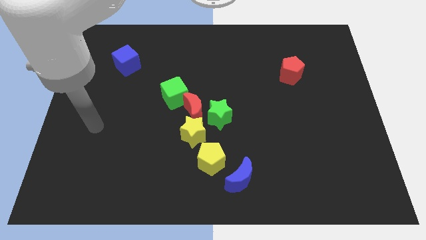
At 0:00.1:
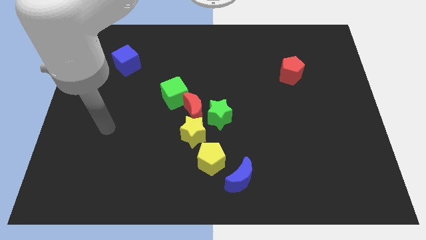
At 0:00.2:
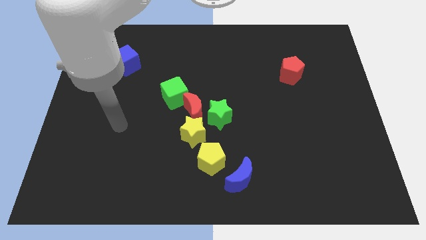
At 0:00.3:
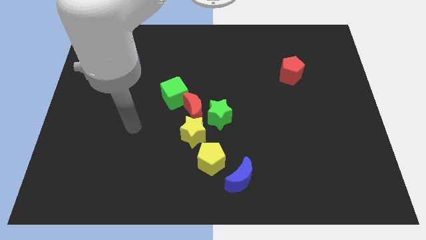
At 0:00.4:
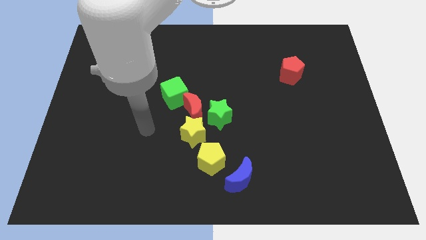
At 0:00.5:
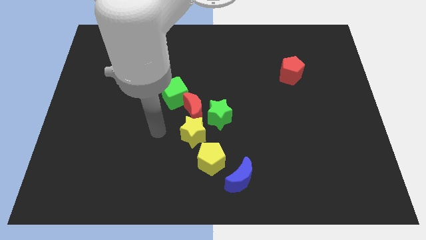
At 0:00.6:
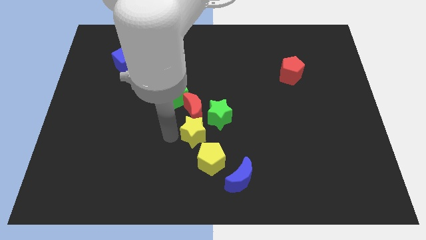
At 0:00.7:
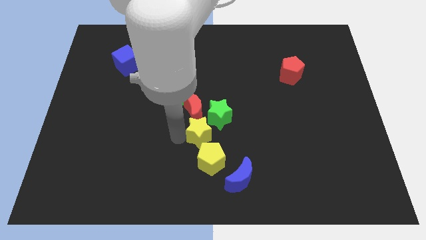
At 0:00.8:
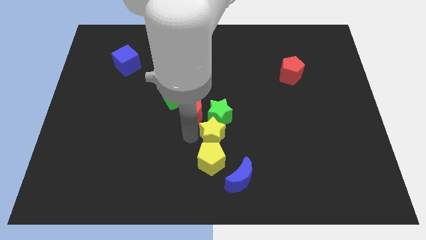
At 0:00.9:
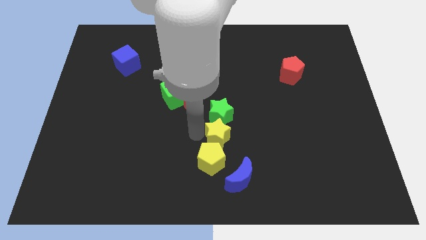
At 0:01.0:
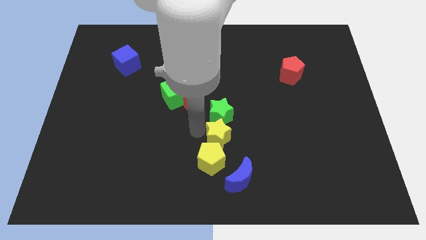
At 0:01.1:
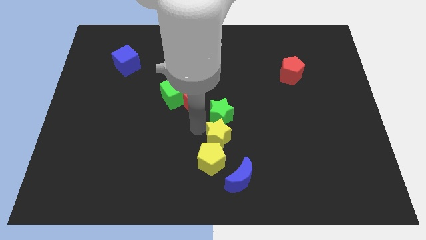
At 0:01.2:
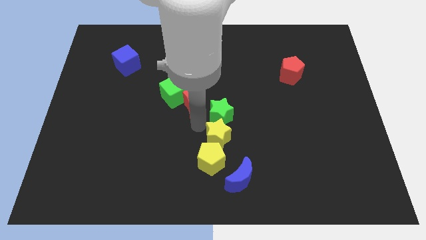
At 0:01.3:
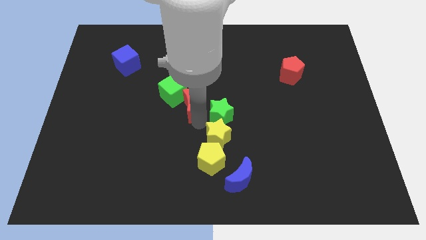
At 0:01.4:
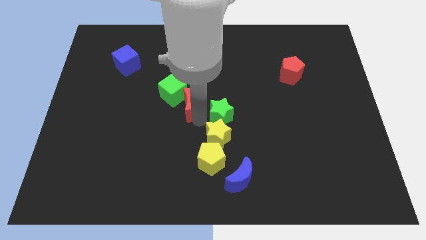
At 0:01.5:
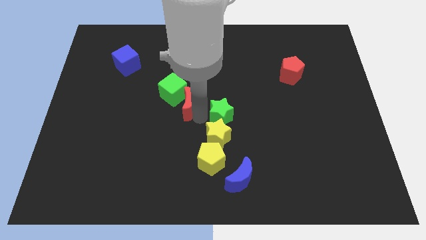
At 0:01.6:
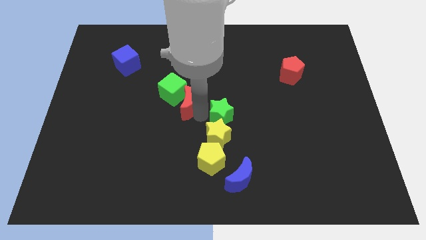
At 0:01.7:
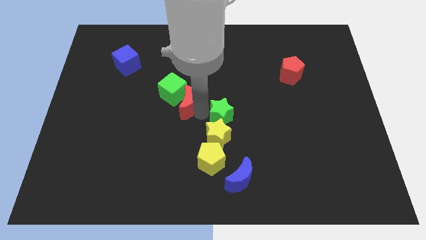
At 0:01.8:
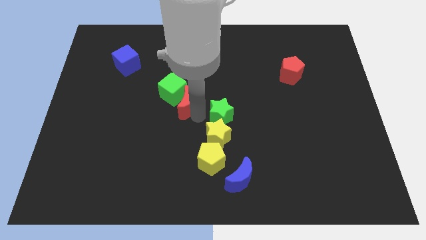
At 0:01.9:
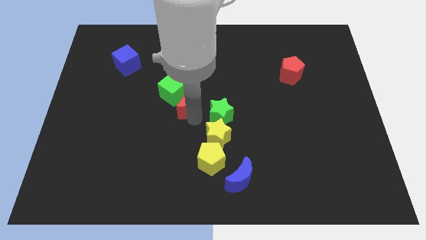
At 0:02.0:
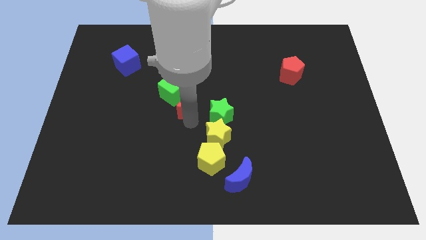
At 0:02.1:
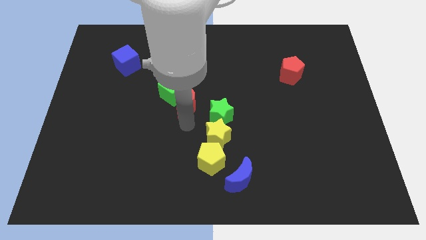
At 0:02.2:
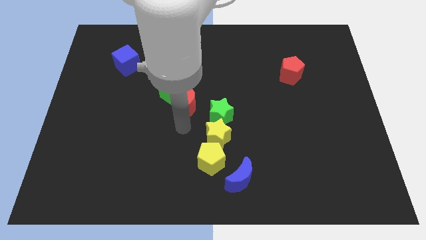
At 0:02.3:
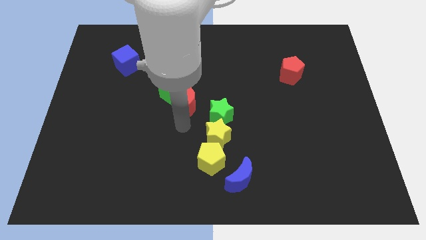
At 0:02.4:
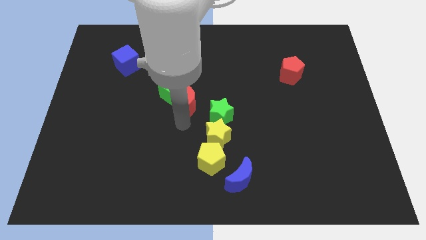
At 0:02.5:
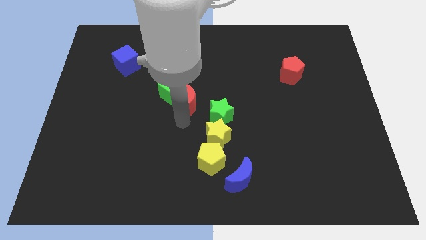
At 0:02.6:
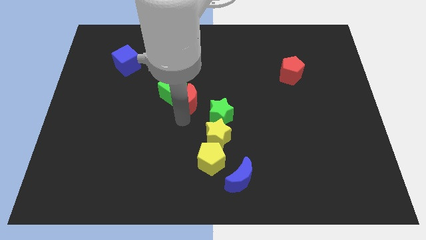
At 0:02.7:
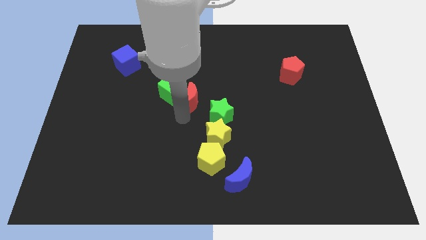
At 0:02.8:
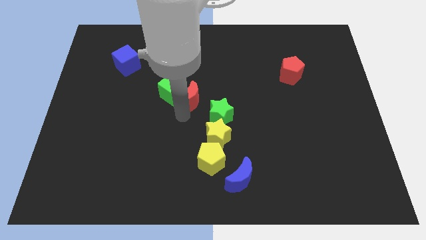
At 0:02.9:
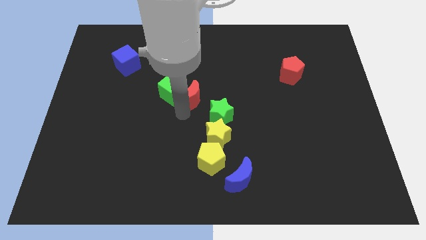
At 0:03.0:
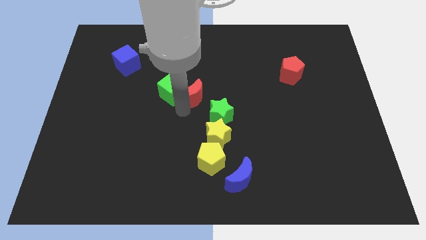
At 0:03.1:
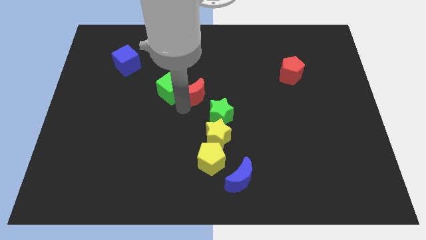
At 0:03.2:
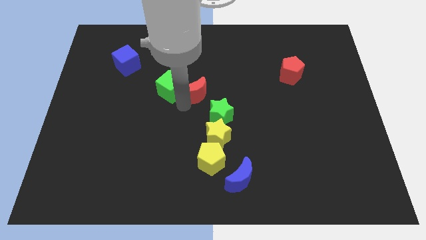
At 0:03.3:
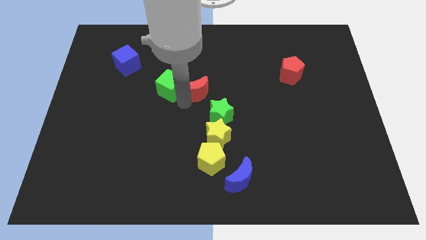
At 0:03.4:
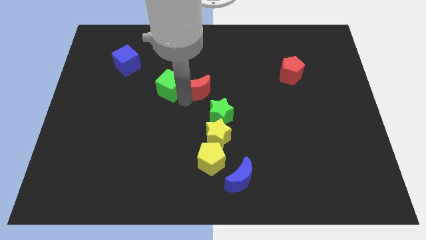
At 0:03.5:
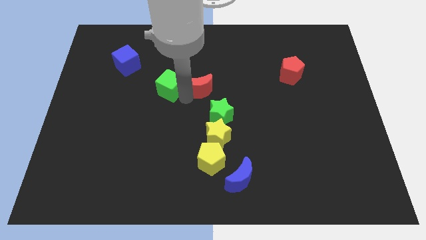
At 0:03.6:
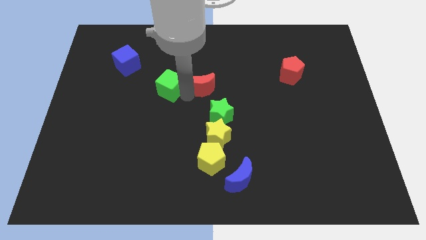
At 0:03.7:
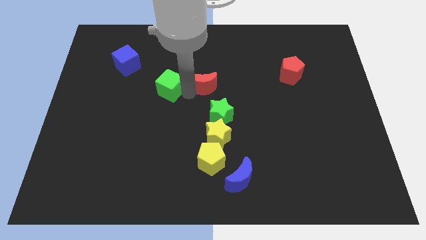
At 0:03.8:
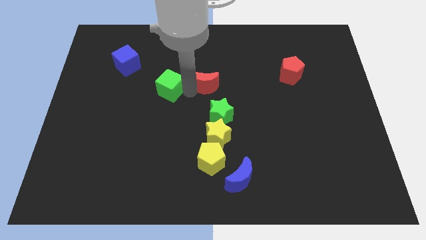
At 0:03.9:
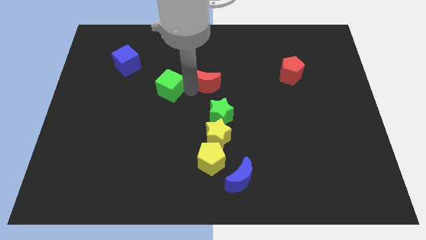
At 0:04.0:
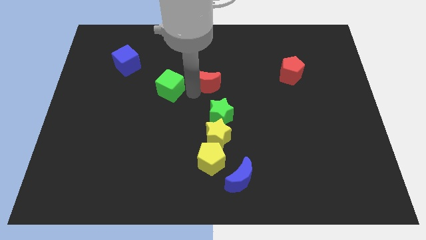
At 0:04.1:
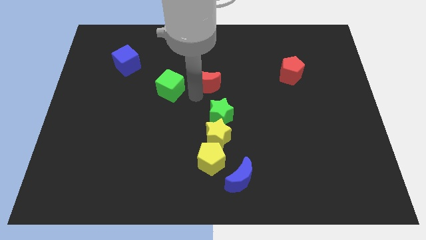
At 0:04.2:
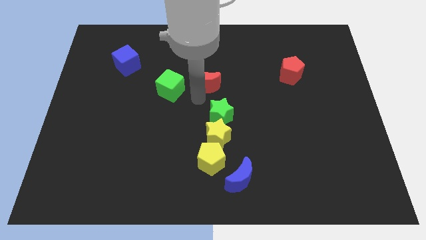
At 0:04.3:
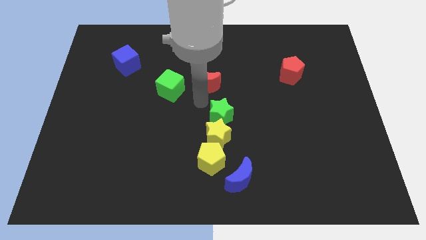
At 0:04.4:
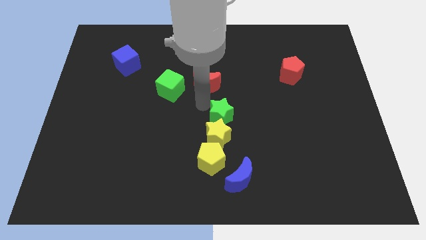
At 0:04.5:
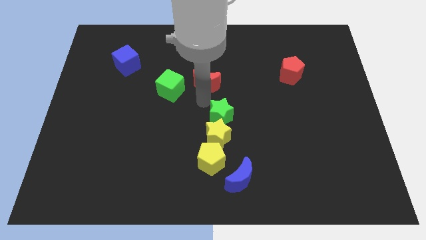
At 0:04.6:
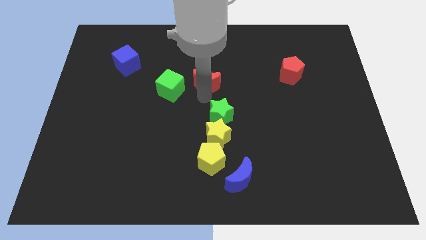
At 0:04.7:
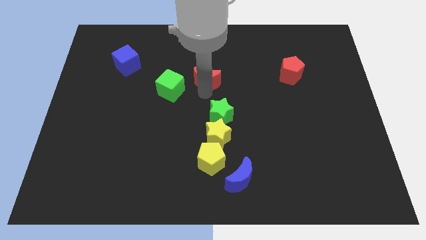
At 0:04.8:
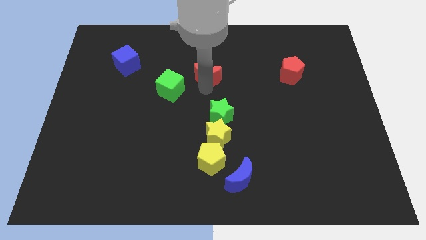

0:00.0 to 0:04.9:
pull the red moon apart from the green star, yellow star, and green cube

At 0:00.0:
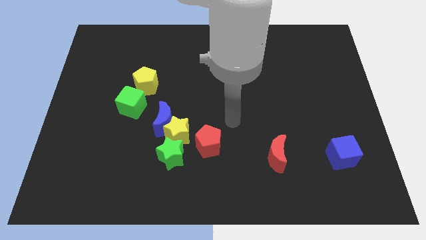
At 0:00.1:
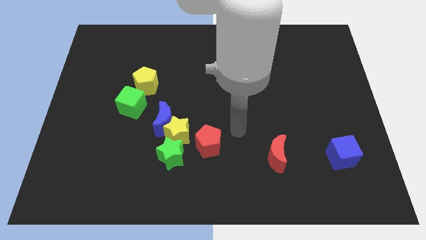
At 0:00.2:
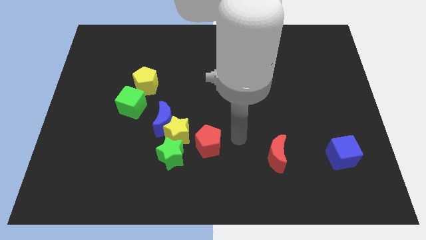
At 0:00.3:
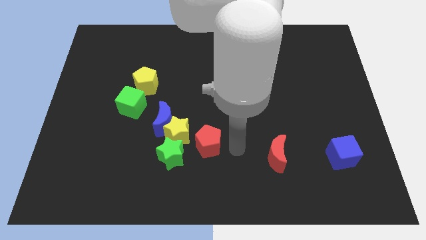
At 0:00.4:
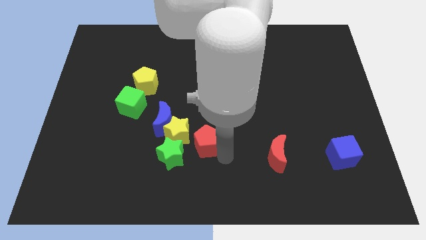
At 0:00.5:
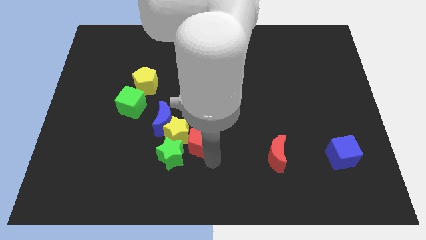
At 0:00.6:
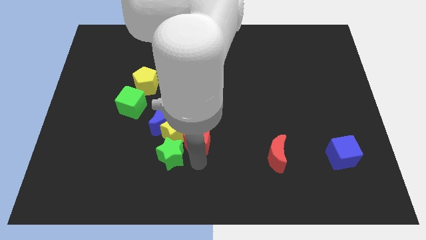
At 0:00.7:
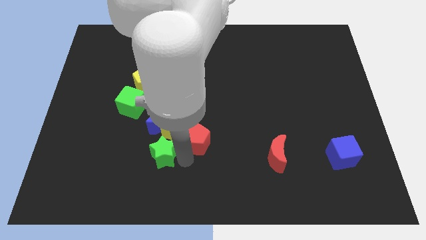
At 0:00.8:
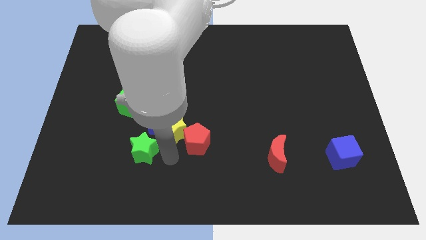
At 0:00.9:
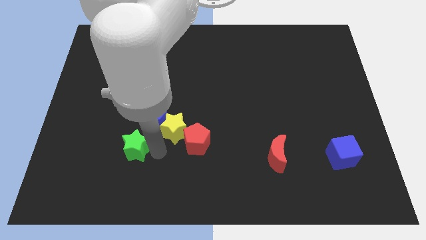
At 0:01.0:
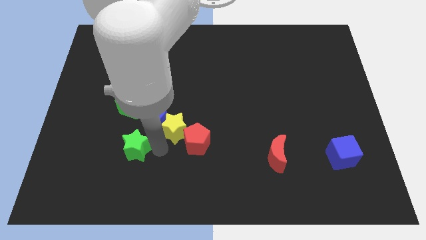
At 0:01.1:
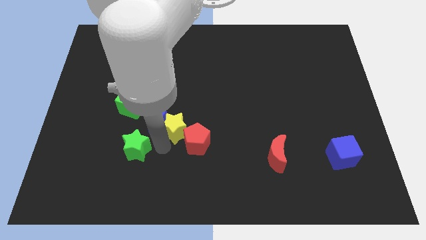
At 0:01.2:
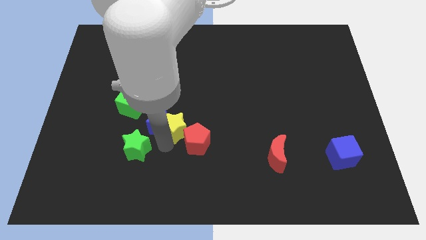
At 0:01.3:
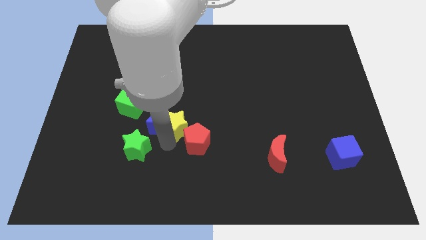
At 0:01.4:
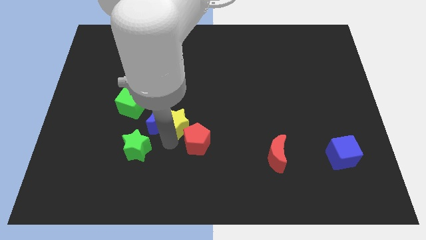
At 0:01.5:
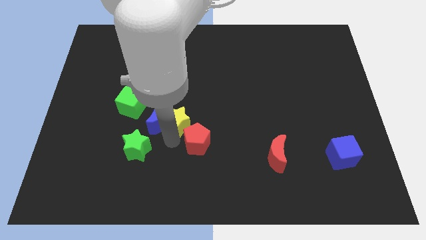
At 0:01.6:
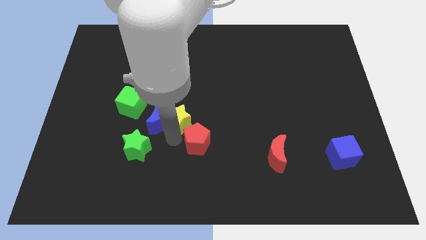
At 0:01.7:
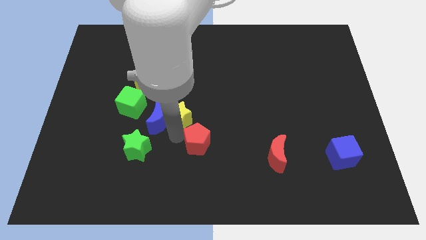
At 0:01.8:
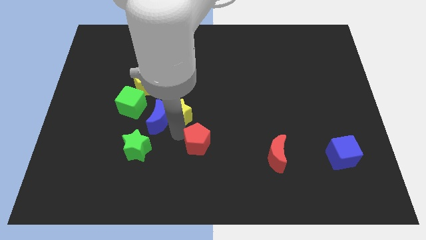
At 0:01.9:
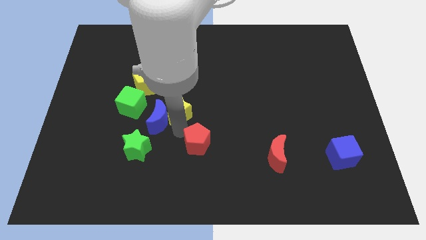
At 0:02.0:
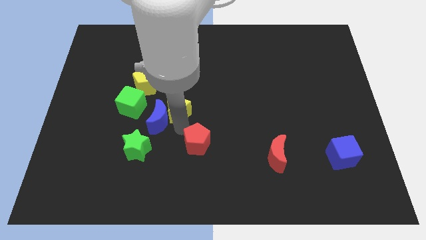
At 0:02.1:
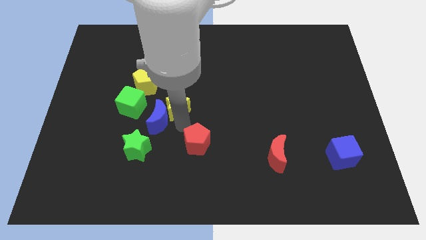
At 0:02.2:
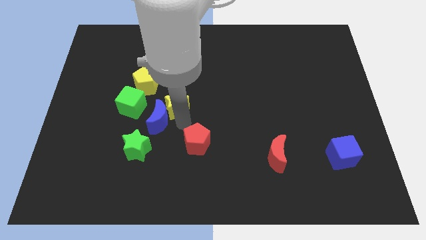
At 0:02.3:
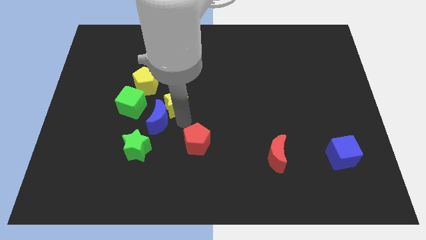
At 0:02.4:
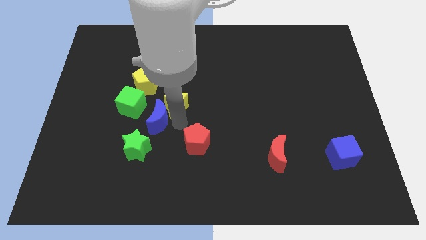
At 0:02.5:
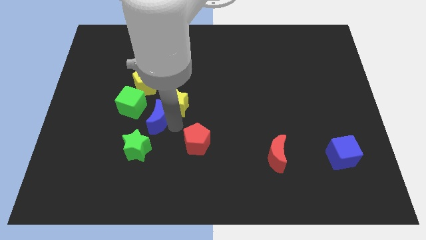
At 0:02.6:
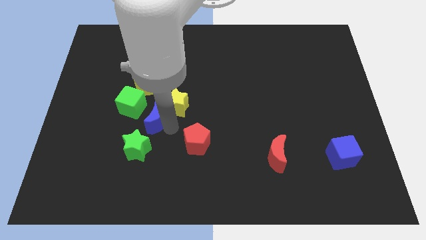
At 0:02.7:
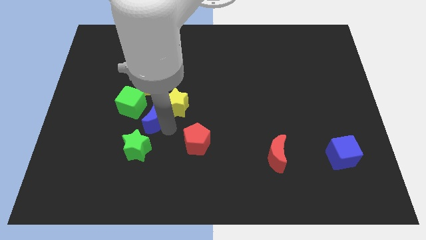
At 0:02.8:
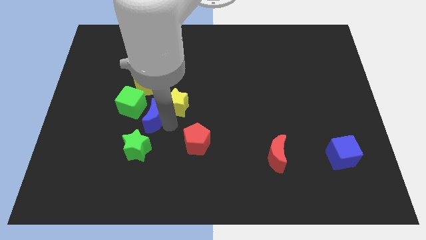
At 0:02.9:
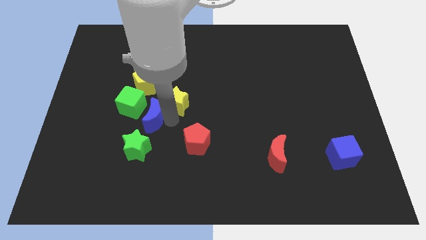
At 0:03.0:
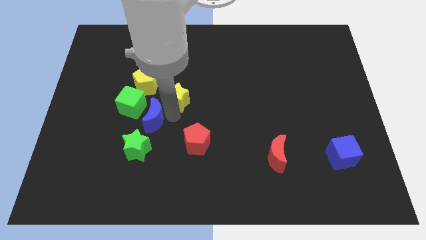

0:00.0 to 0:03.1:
pull the yellow star apart from the blue moon, green star, and red pentagon

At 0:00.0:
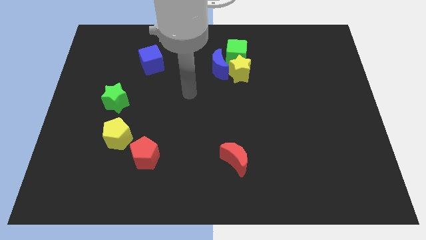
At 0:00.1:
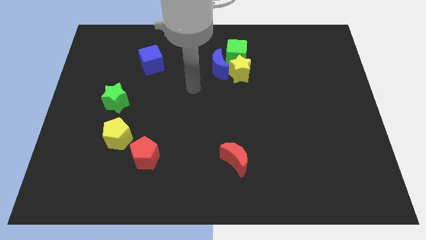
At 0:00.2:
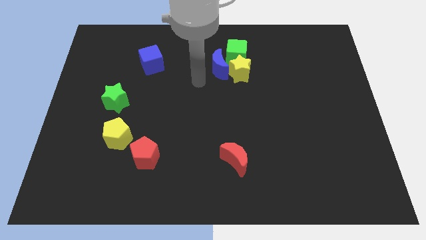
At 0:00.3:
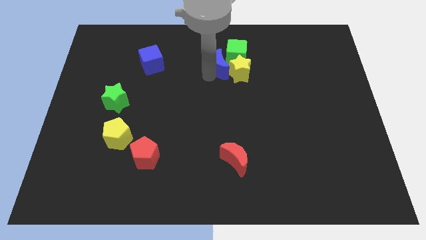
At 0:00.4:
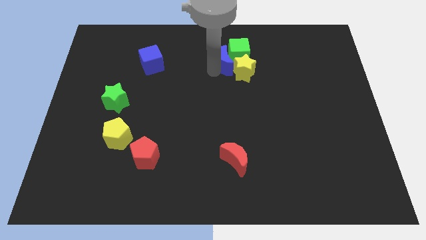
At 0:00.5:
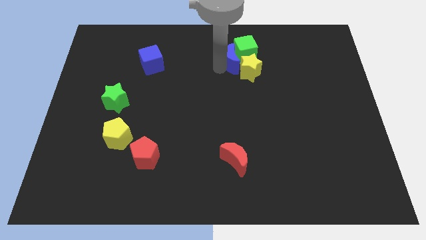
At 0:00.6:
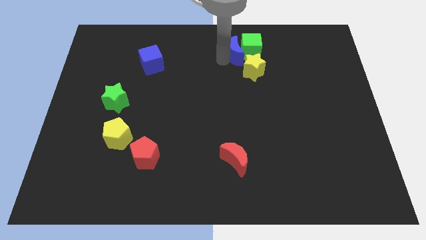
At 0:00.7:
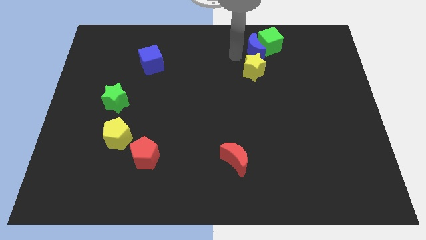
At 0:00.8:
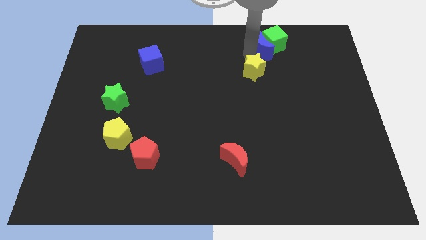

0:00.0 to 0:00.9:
pull the yellow star apart from the blue moon and green cube

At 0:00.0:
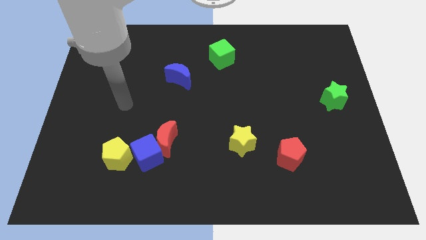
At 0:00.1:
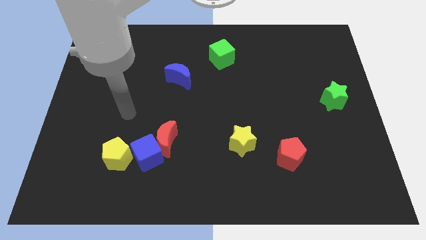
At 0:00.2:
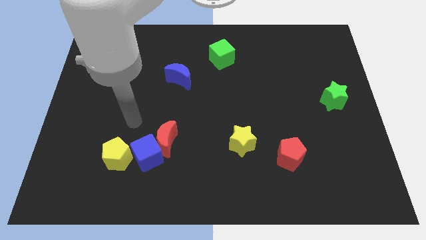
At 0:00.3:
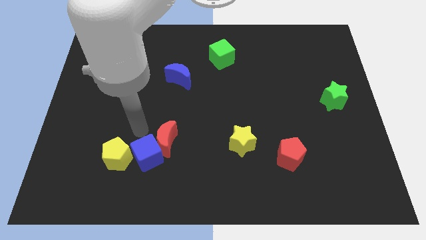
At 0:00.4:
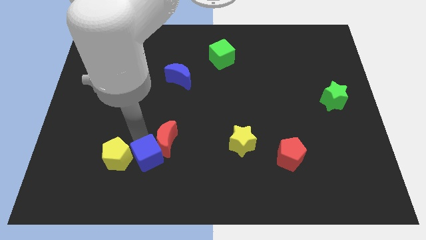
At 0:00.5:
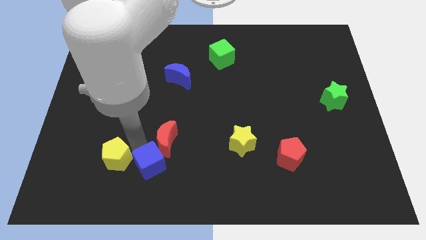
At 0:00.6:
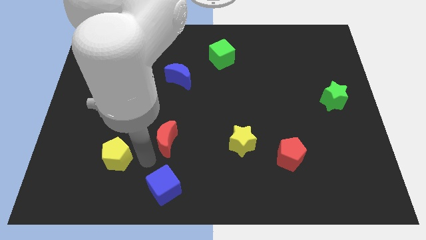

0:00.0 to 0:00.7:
pull the red moon apart from the blue cube
